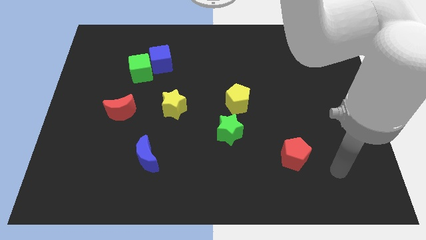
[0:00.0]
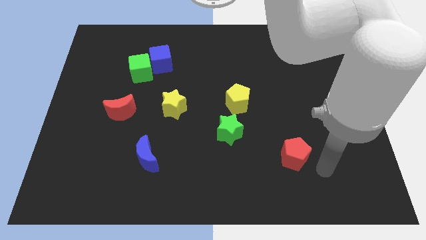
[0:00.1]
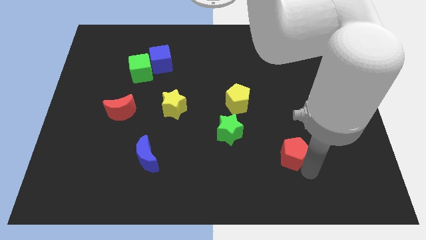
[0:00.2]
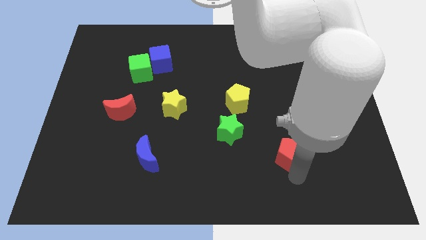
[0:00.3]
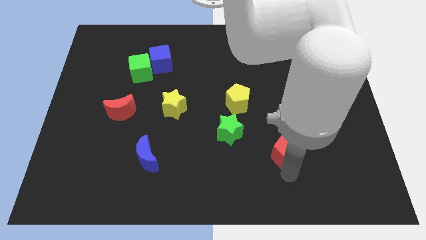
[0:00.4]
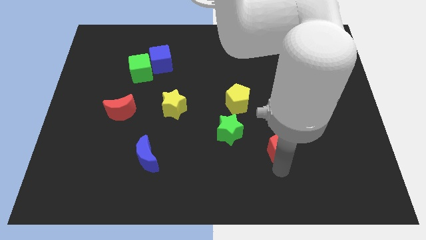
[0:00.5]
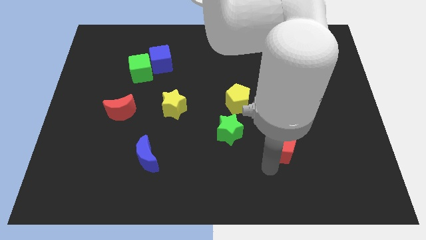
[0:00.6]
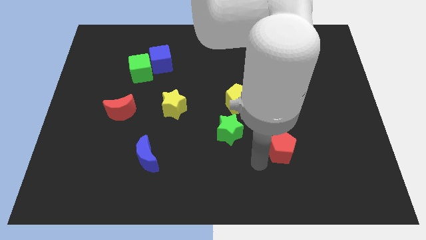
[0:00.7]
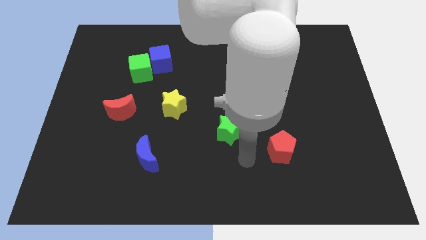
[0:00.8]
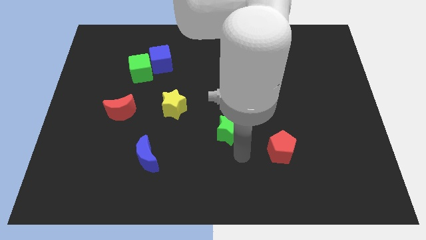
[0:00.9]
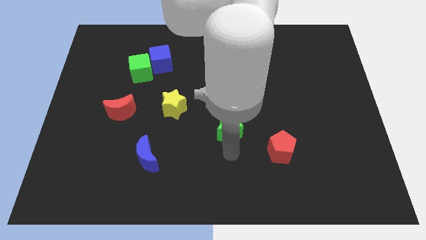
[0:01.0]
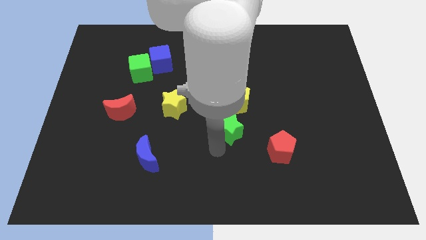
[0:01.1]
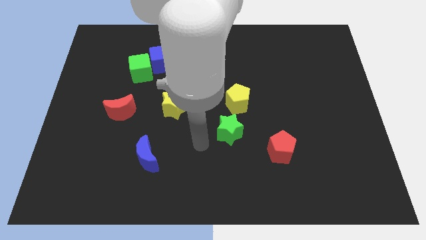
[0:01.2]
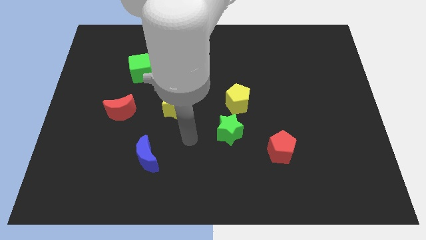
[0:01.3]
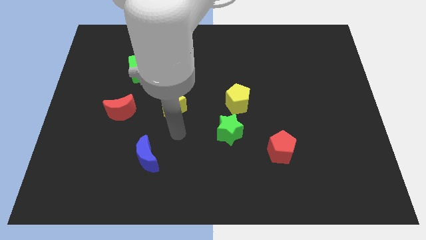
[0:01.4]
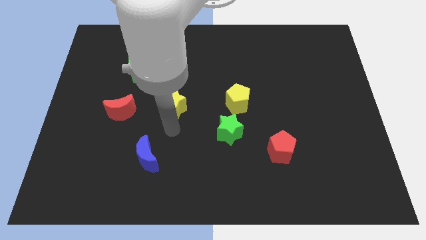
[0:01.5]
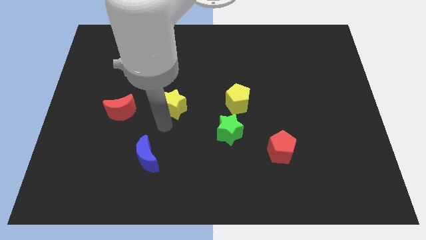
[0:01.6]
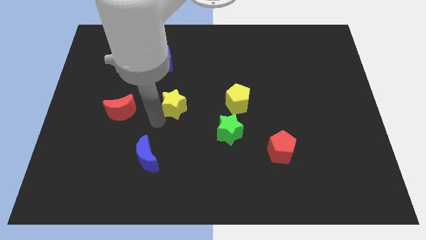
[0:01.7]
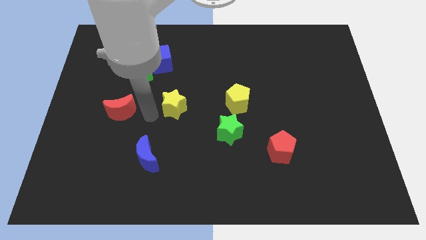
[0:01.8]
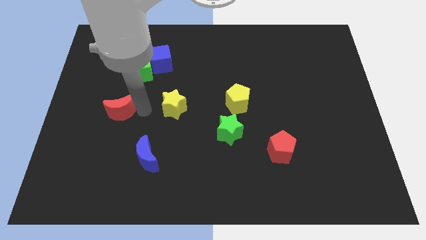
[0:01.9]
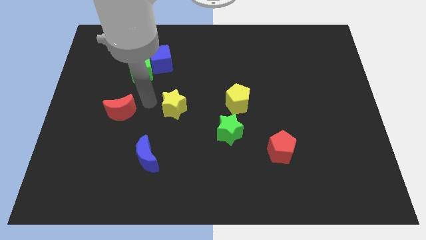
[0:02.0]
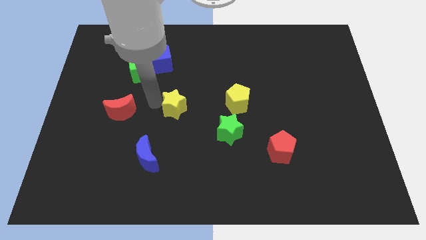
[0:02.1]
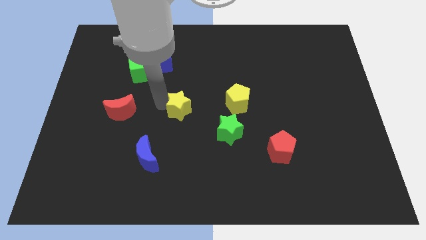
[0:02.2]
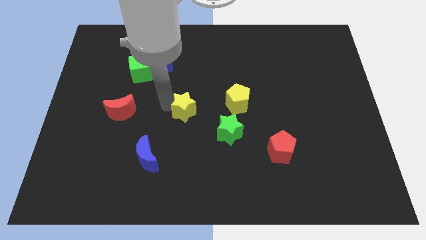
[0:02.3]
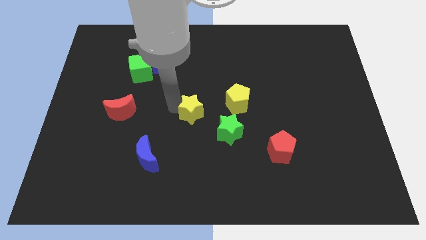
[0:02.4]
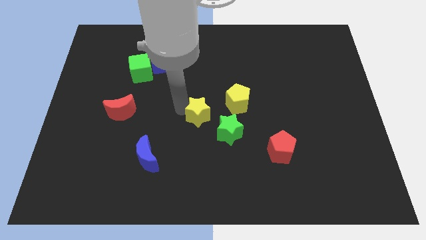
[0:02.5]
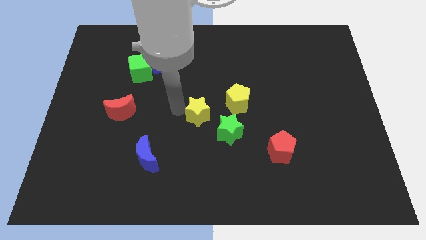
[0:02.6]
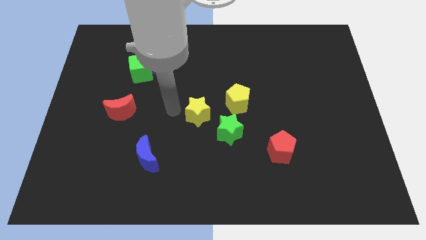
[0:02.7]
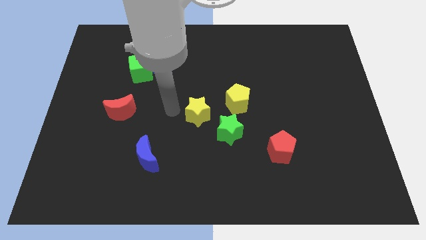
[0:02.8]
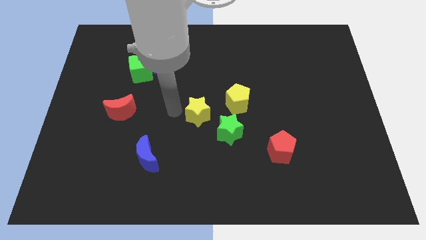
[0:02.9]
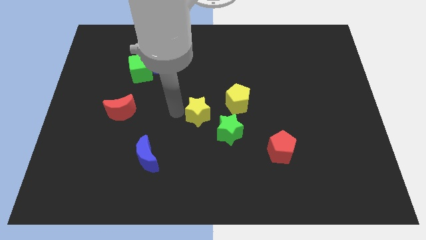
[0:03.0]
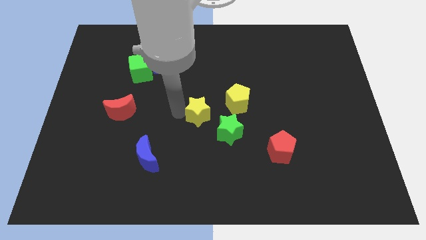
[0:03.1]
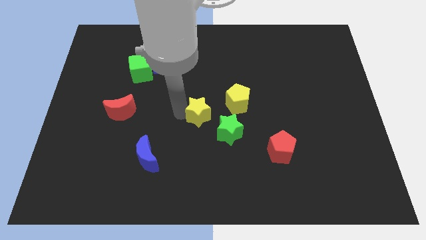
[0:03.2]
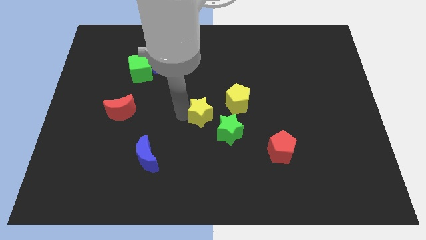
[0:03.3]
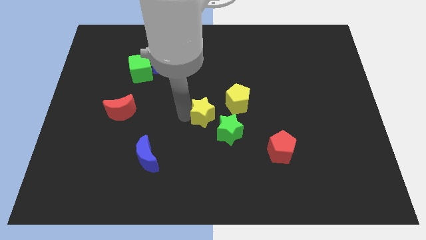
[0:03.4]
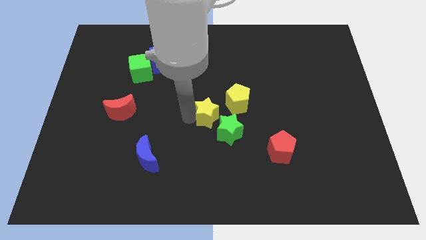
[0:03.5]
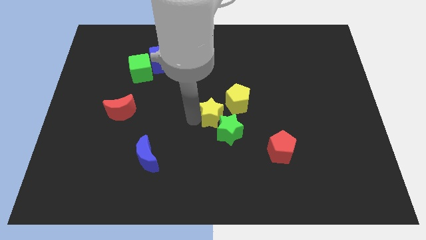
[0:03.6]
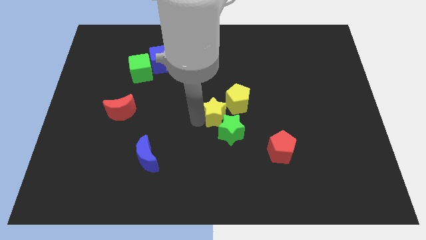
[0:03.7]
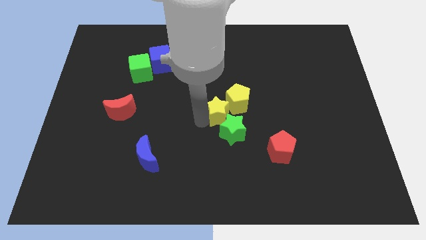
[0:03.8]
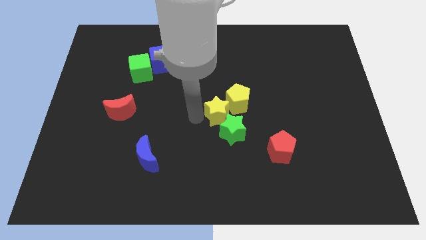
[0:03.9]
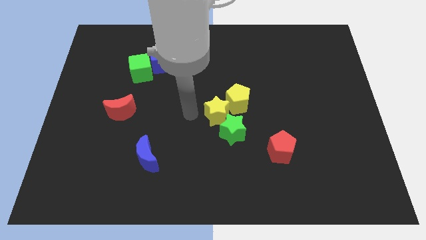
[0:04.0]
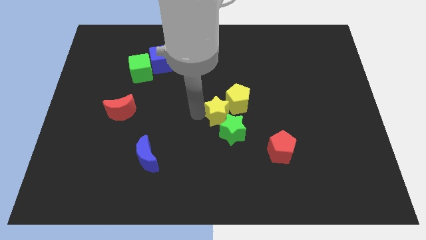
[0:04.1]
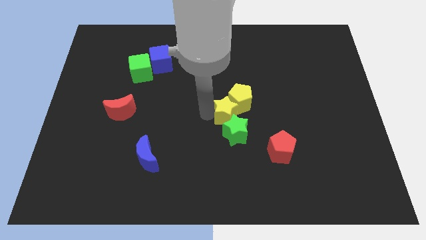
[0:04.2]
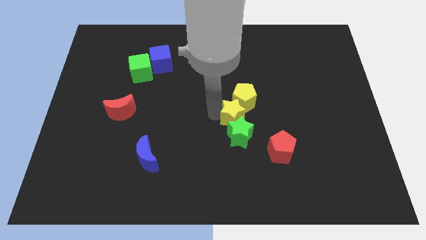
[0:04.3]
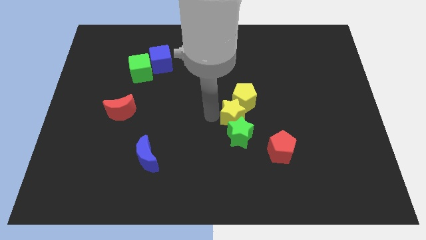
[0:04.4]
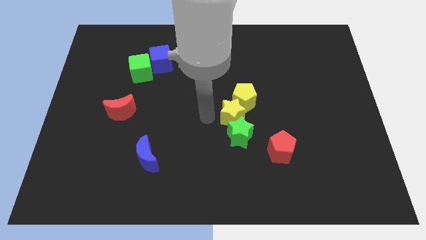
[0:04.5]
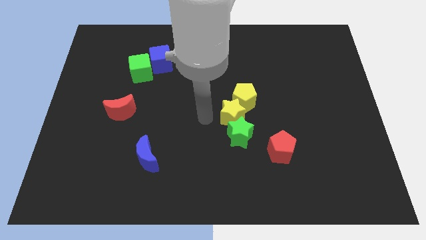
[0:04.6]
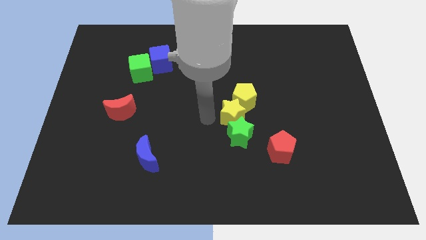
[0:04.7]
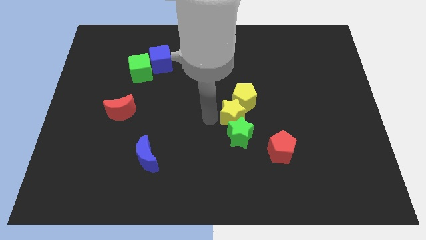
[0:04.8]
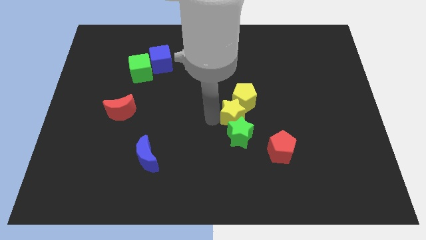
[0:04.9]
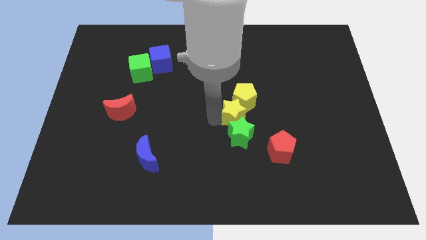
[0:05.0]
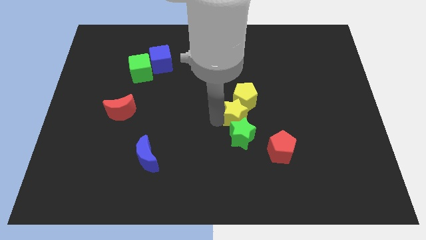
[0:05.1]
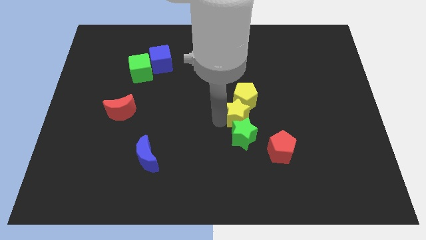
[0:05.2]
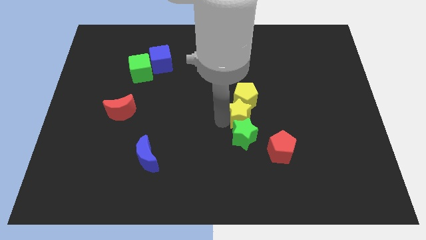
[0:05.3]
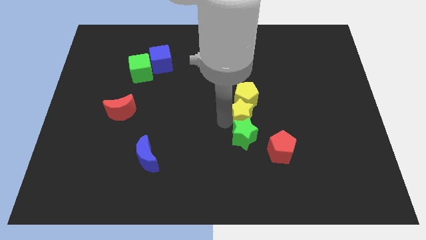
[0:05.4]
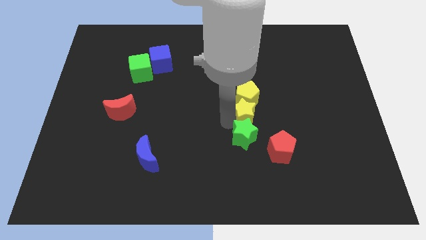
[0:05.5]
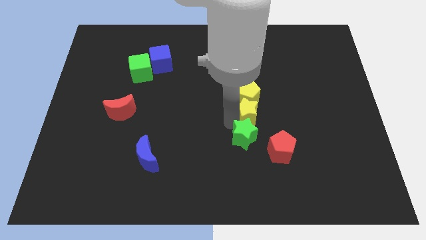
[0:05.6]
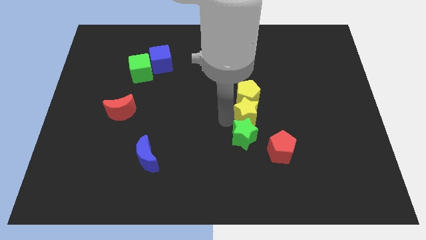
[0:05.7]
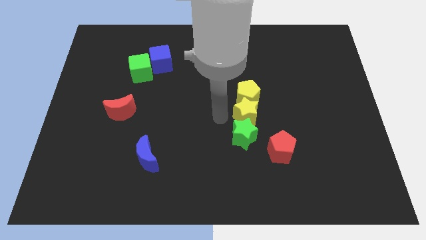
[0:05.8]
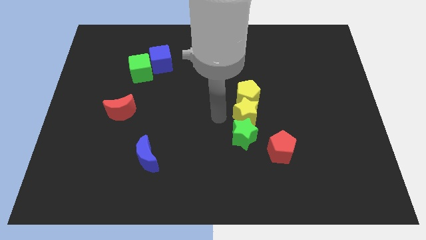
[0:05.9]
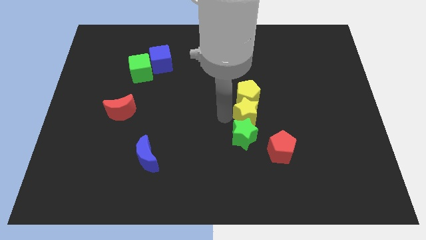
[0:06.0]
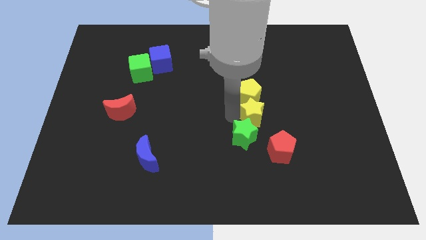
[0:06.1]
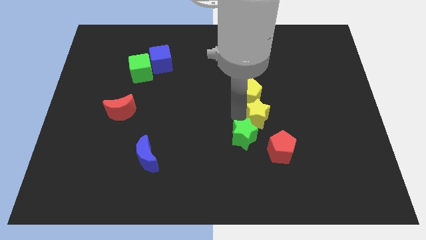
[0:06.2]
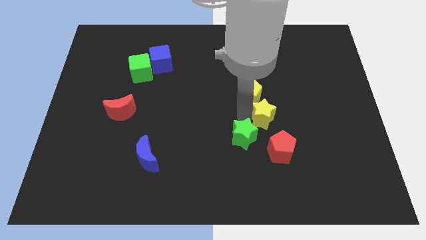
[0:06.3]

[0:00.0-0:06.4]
move the yellow star right

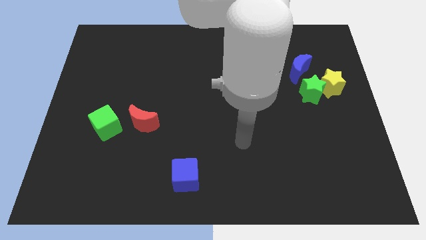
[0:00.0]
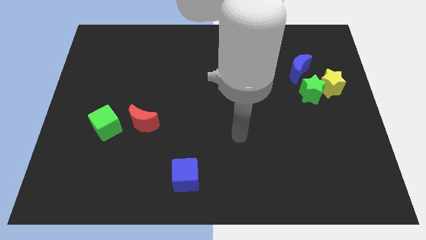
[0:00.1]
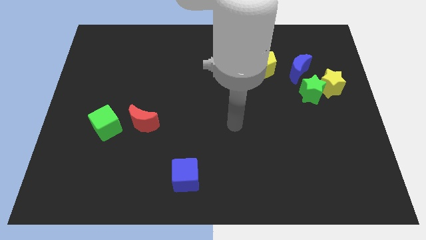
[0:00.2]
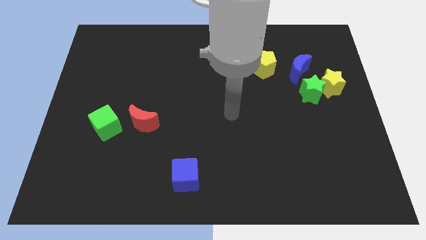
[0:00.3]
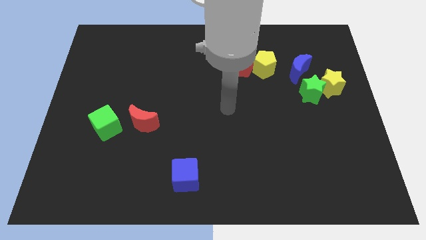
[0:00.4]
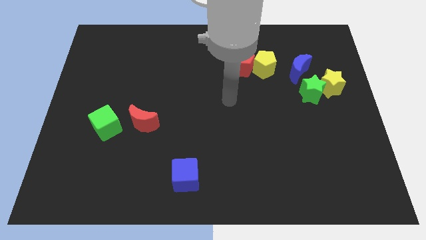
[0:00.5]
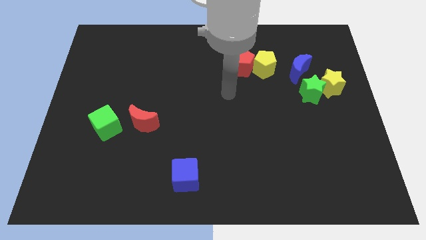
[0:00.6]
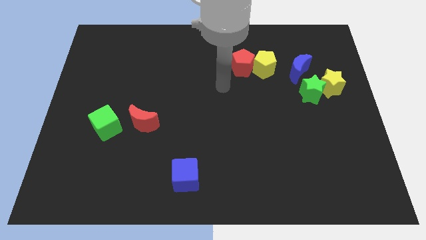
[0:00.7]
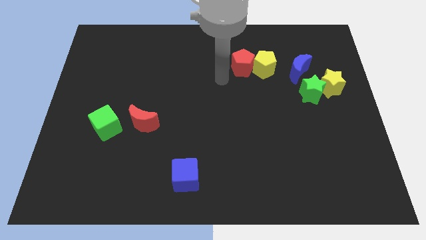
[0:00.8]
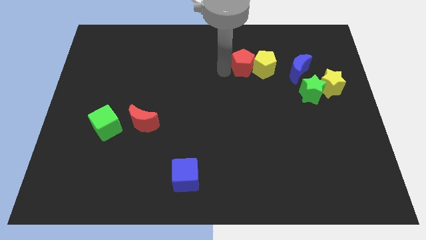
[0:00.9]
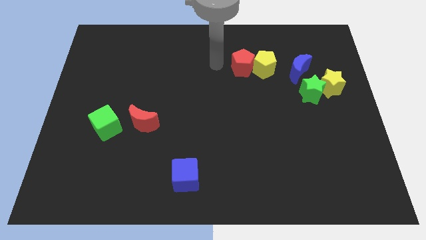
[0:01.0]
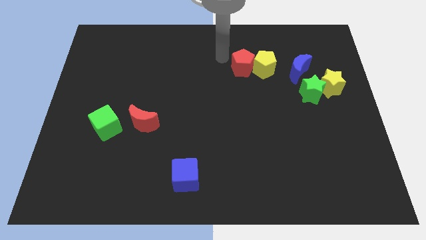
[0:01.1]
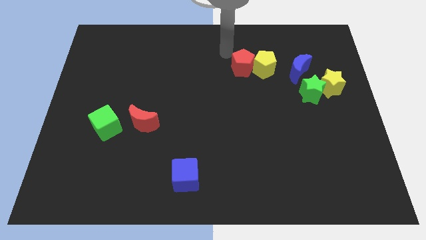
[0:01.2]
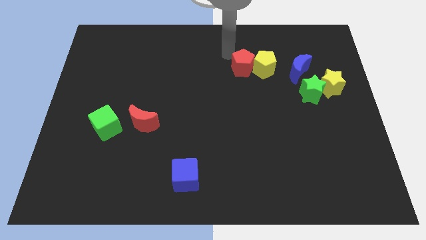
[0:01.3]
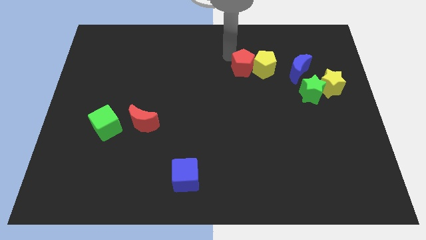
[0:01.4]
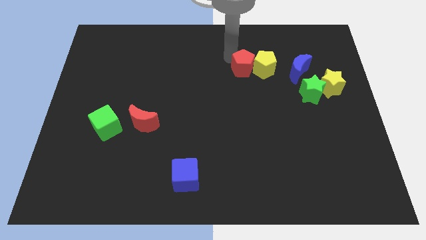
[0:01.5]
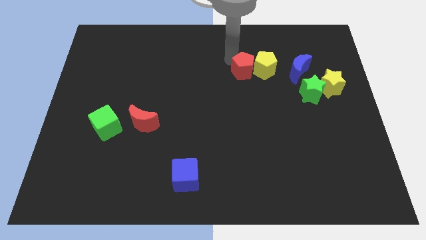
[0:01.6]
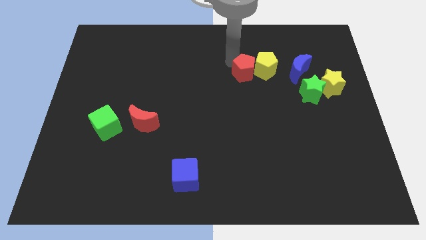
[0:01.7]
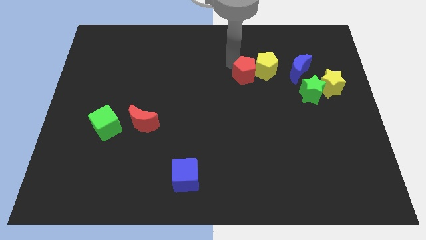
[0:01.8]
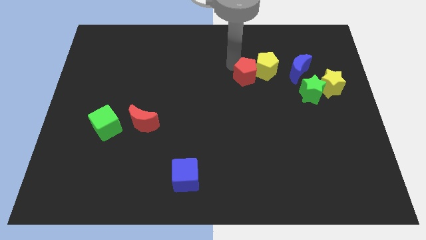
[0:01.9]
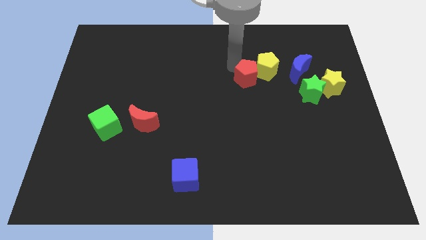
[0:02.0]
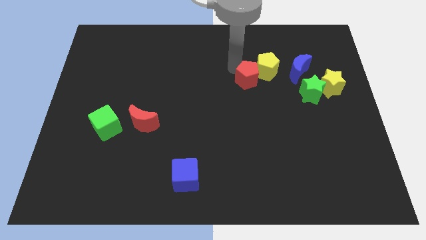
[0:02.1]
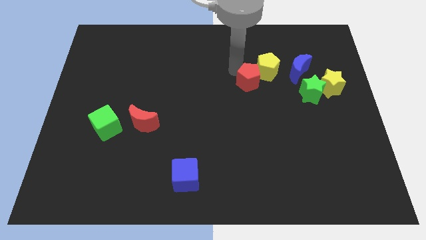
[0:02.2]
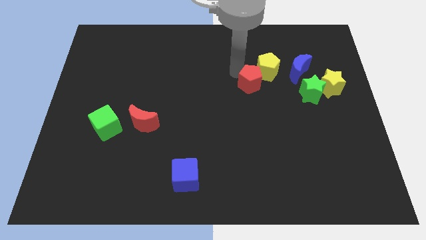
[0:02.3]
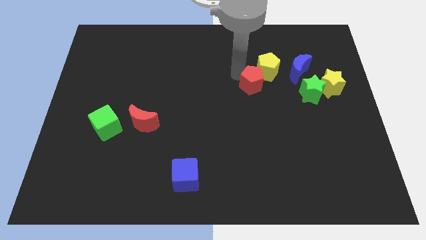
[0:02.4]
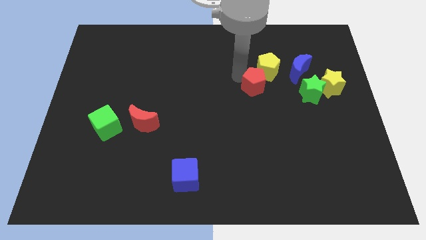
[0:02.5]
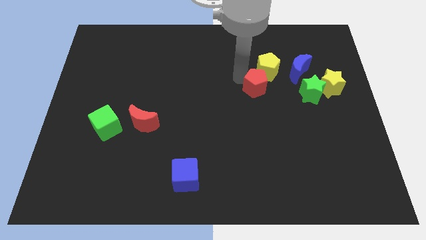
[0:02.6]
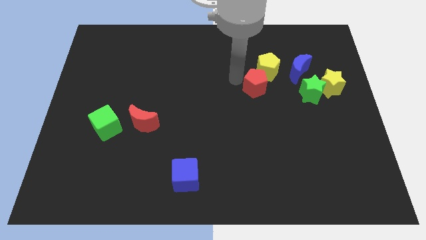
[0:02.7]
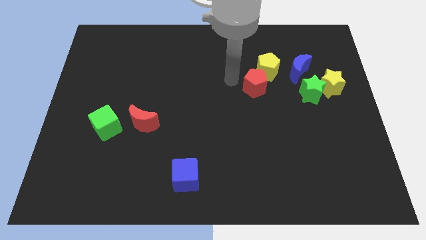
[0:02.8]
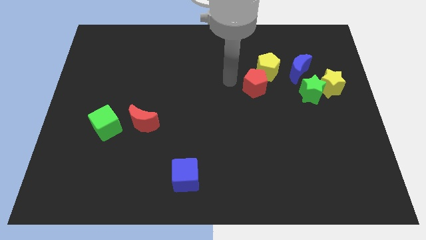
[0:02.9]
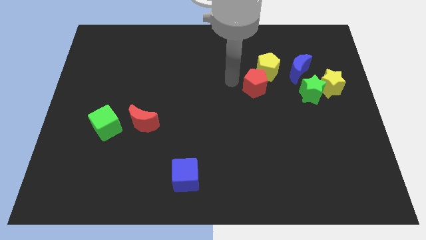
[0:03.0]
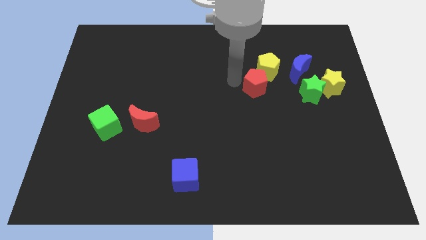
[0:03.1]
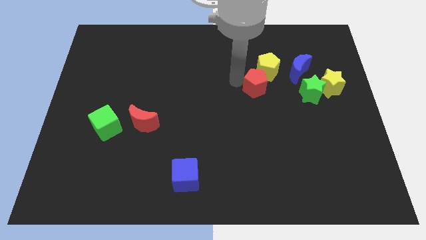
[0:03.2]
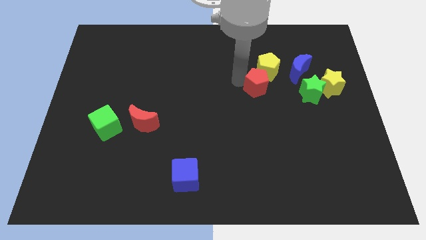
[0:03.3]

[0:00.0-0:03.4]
slightly slide the red pentagon diagonally downwards and to the right
